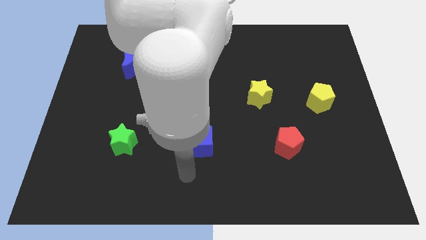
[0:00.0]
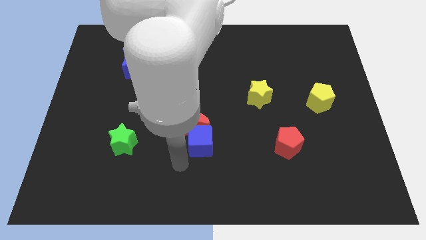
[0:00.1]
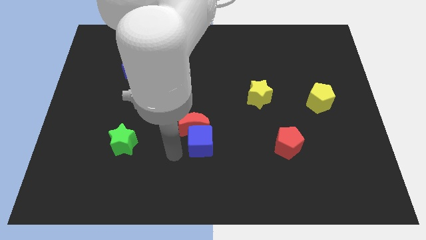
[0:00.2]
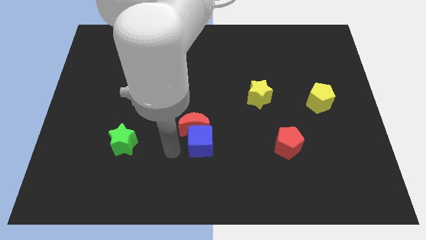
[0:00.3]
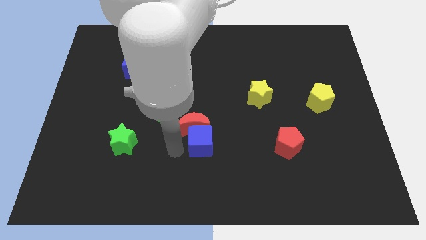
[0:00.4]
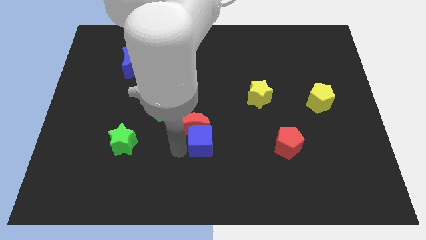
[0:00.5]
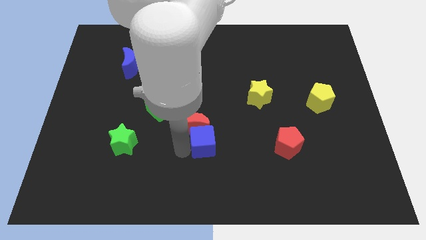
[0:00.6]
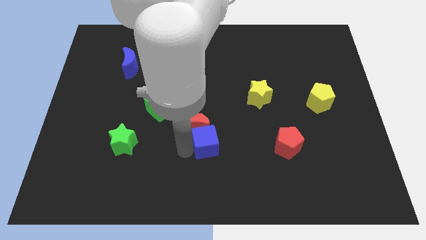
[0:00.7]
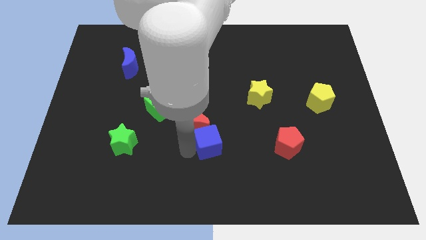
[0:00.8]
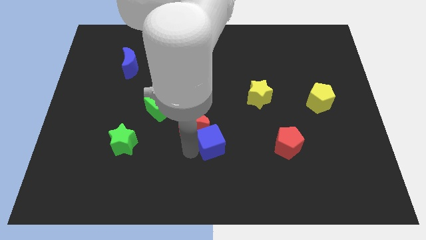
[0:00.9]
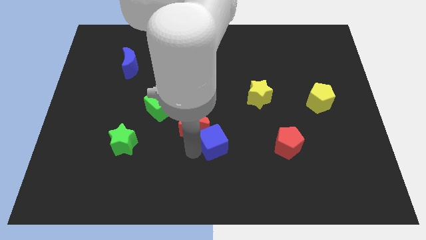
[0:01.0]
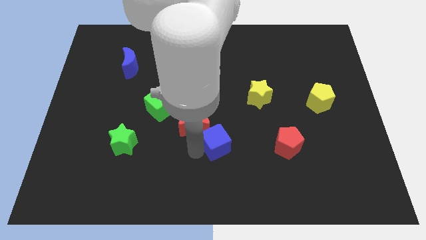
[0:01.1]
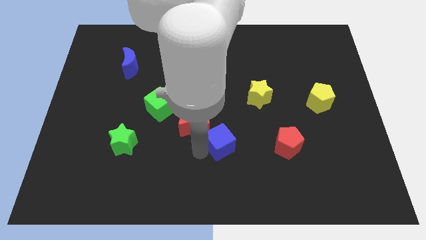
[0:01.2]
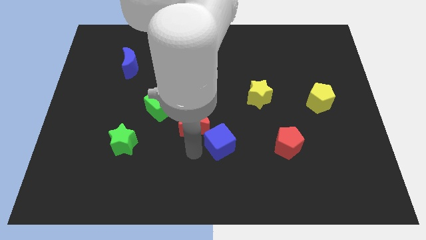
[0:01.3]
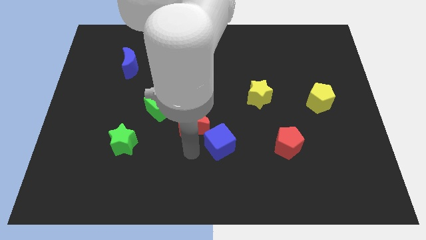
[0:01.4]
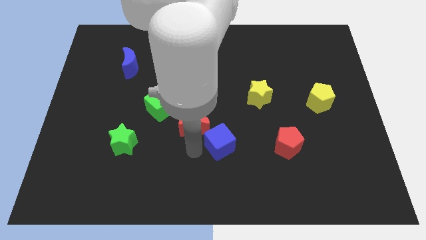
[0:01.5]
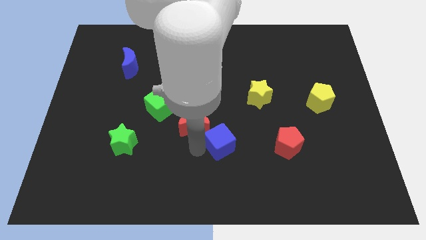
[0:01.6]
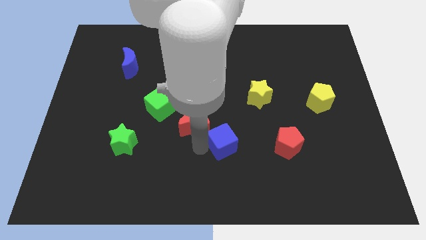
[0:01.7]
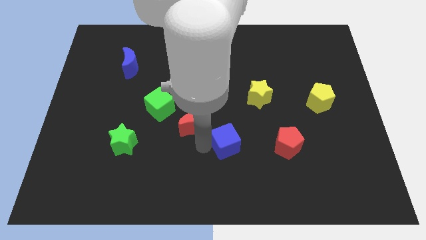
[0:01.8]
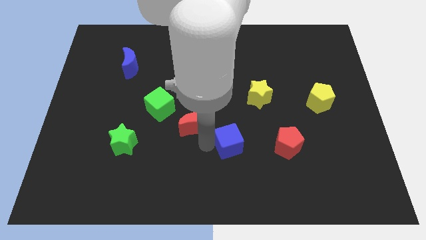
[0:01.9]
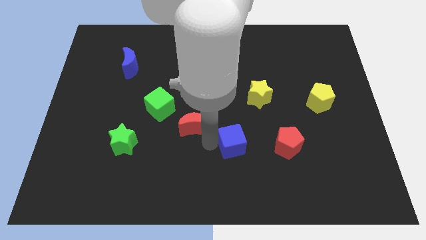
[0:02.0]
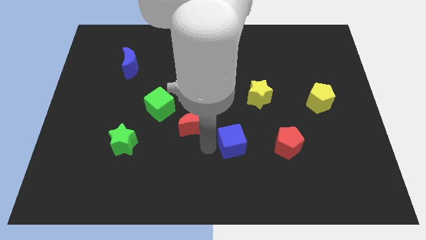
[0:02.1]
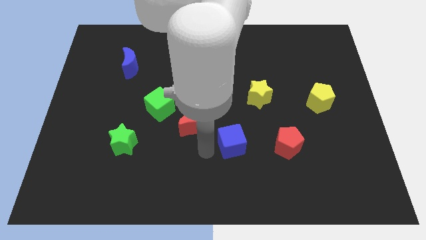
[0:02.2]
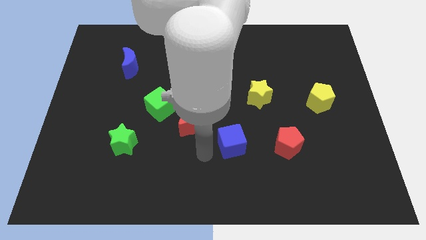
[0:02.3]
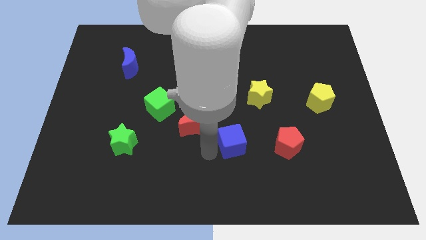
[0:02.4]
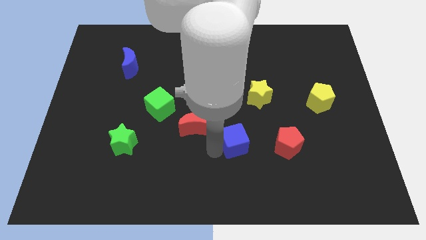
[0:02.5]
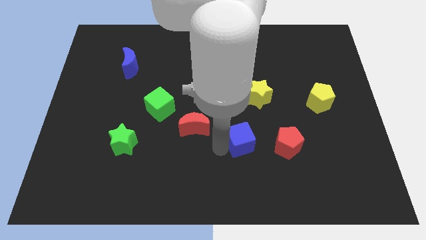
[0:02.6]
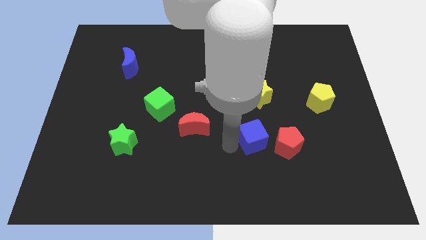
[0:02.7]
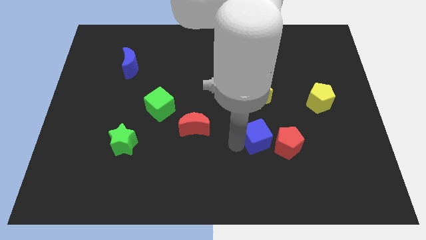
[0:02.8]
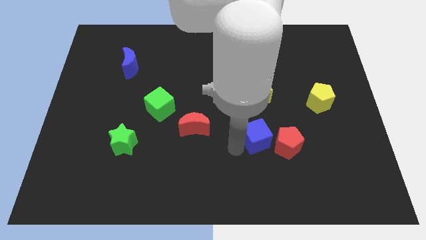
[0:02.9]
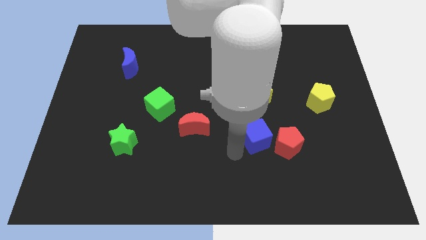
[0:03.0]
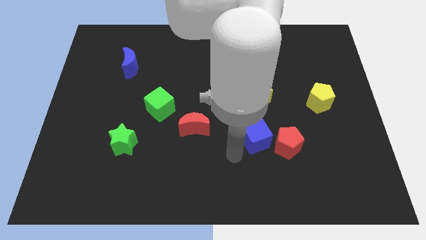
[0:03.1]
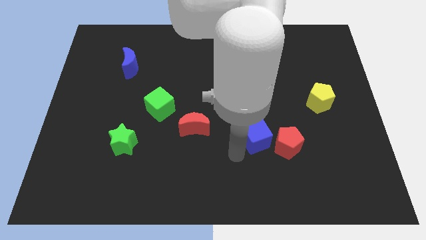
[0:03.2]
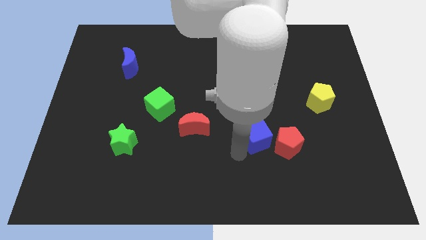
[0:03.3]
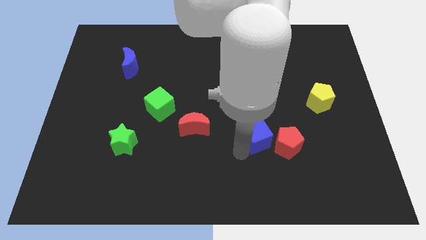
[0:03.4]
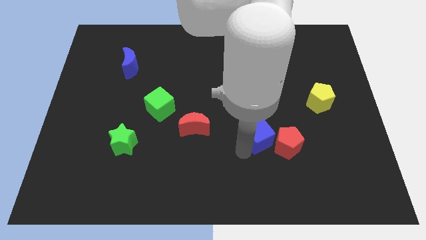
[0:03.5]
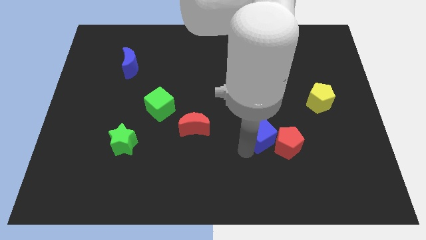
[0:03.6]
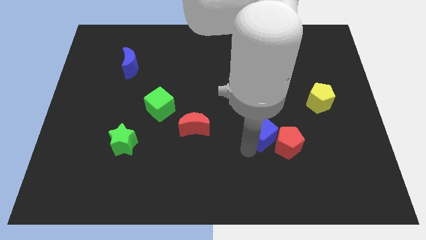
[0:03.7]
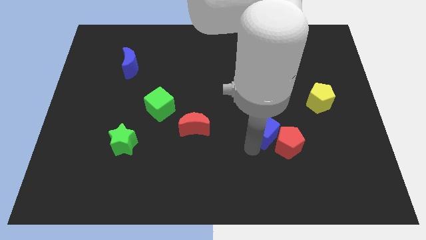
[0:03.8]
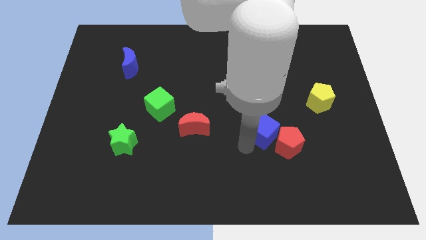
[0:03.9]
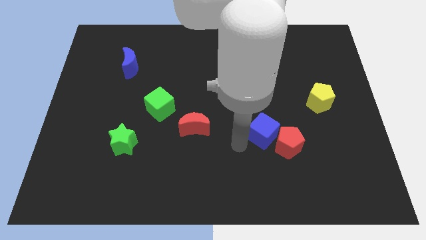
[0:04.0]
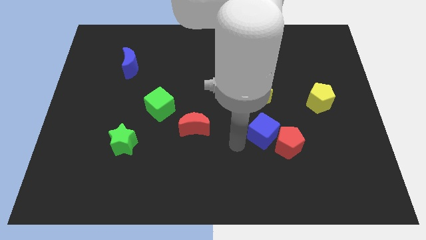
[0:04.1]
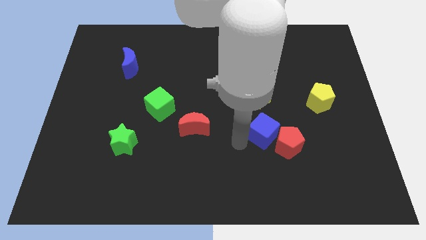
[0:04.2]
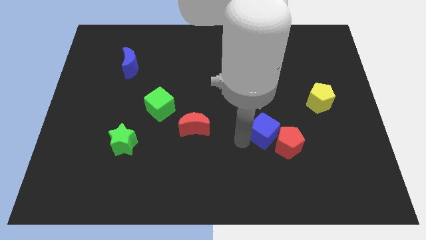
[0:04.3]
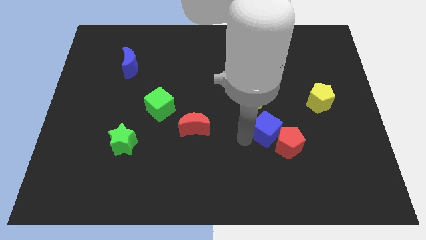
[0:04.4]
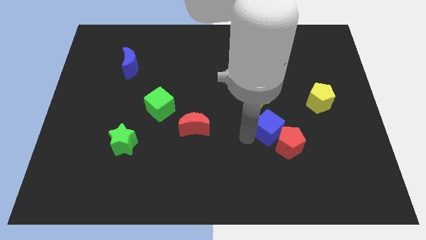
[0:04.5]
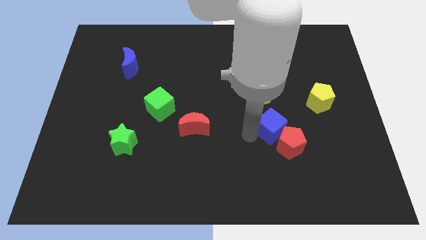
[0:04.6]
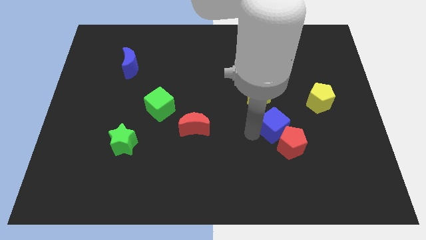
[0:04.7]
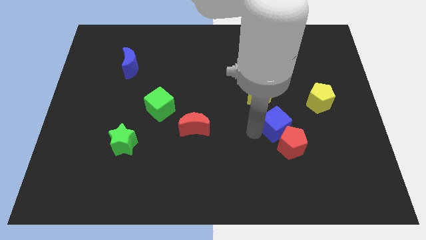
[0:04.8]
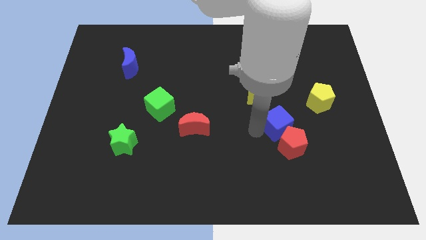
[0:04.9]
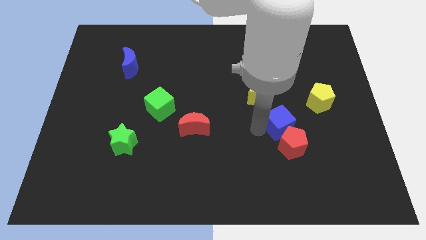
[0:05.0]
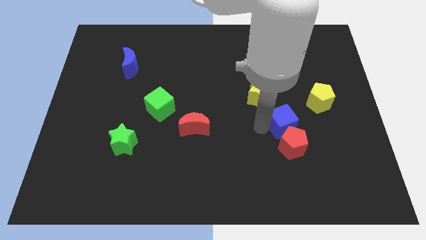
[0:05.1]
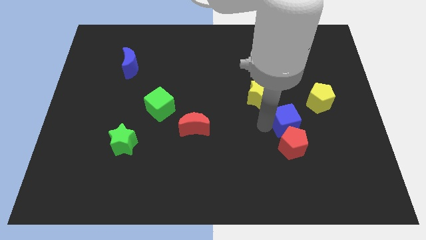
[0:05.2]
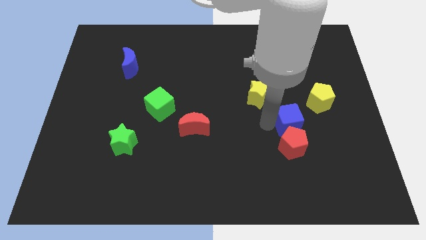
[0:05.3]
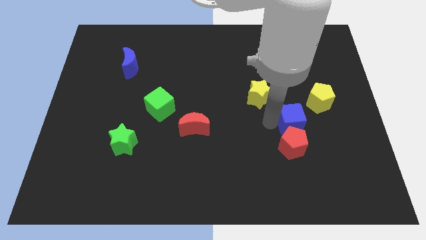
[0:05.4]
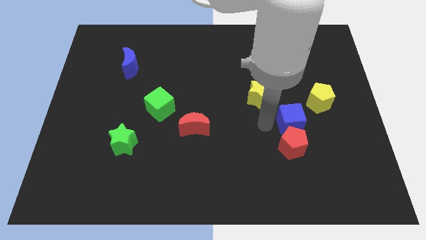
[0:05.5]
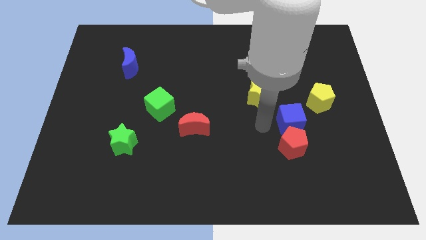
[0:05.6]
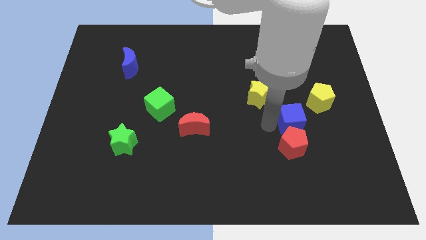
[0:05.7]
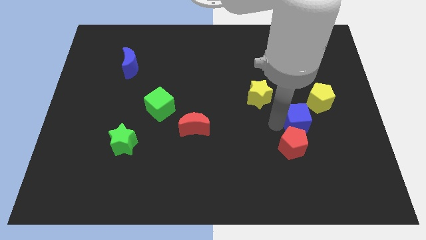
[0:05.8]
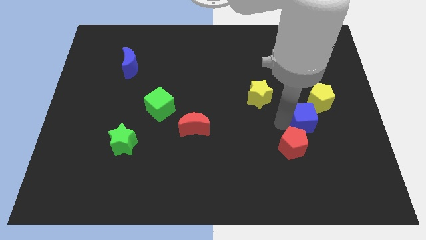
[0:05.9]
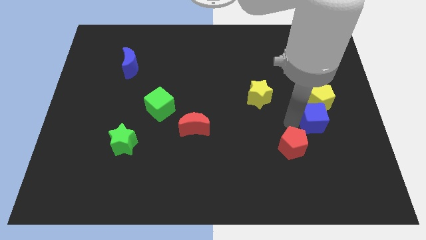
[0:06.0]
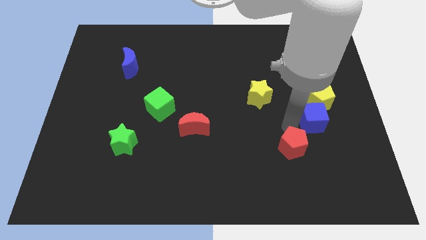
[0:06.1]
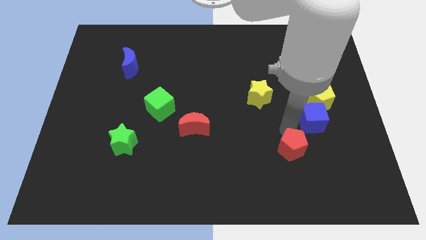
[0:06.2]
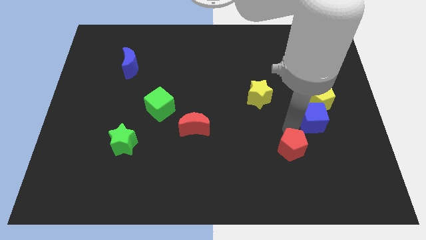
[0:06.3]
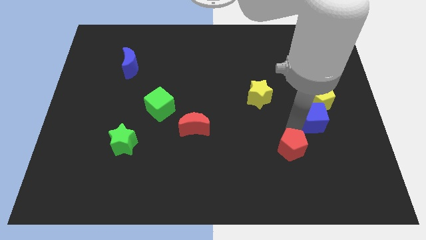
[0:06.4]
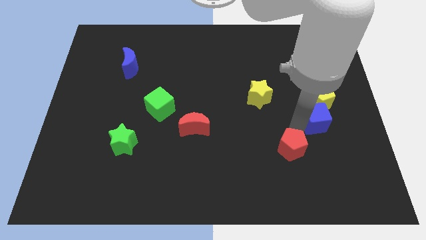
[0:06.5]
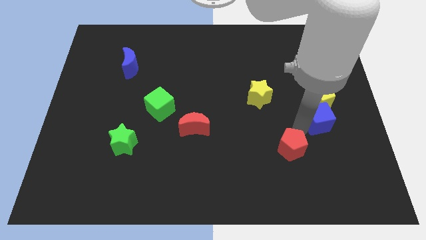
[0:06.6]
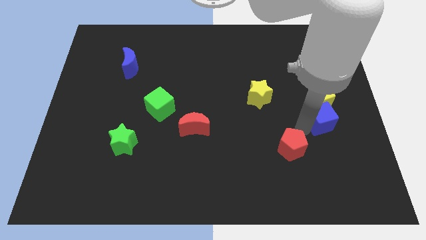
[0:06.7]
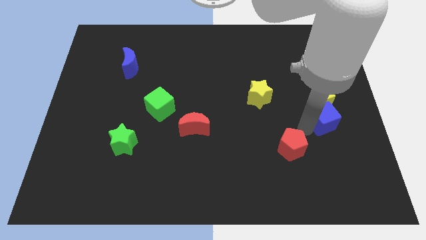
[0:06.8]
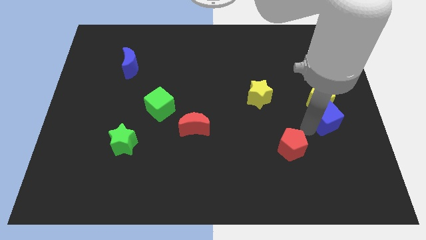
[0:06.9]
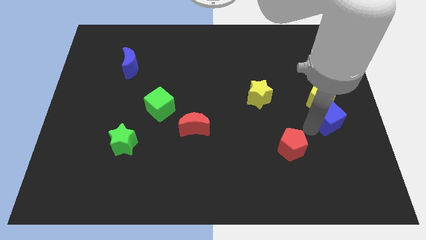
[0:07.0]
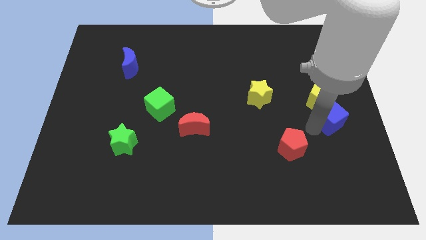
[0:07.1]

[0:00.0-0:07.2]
slide the blue cube to the right side
